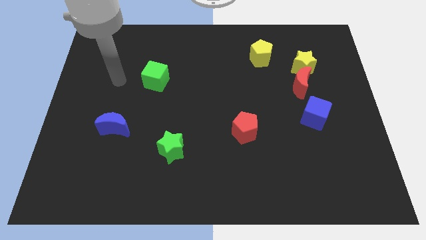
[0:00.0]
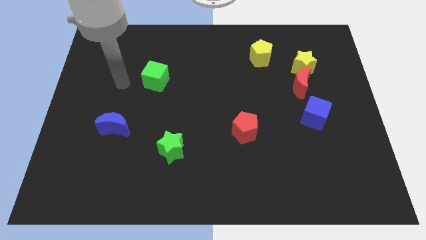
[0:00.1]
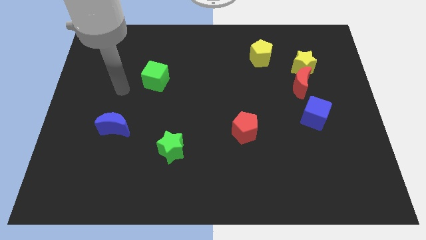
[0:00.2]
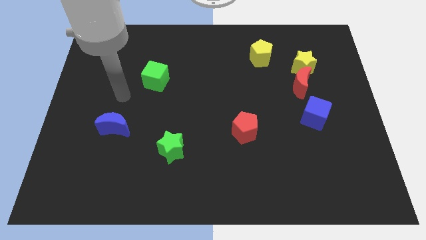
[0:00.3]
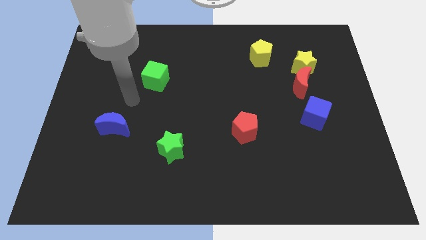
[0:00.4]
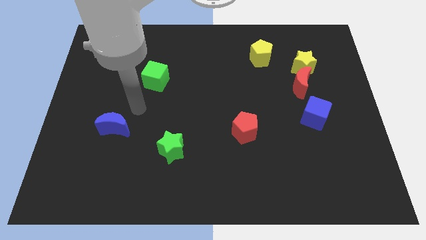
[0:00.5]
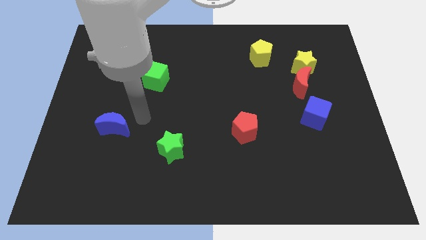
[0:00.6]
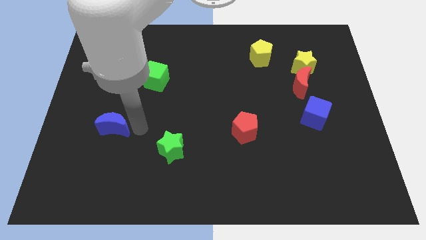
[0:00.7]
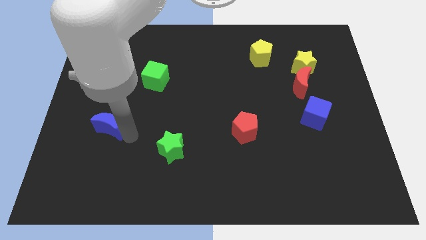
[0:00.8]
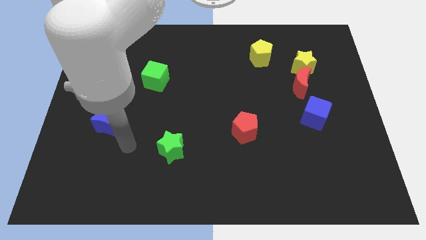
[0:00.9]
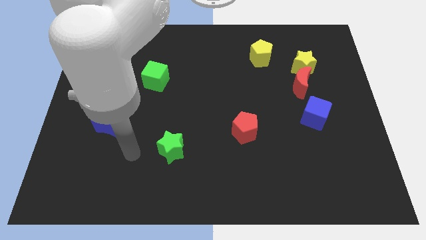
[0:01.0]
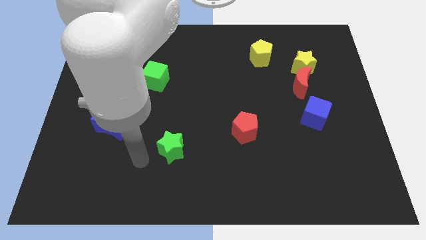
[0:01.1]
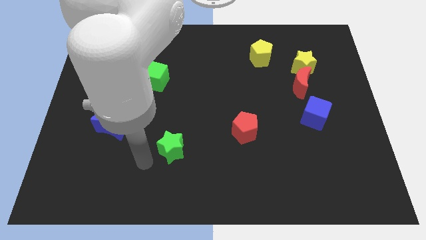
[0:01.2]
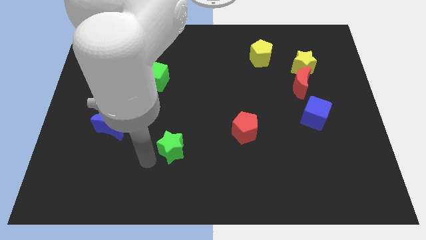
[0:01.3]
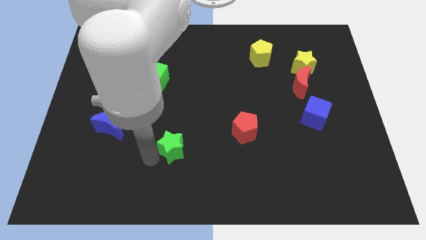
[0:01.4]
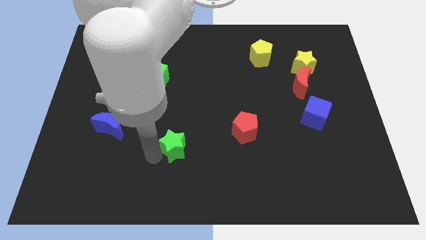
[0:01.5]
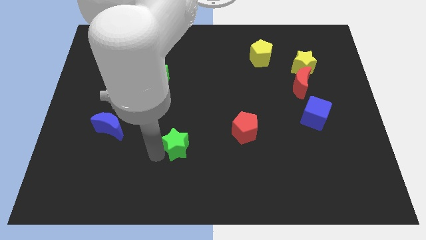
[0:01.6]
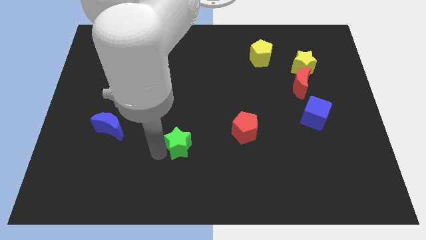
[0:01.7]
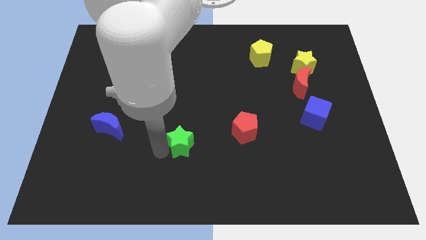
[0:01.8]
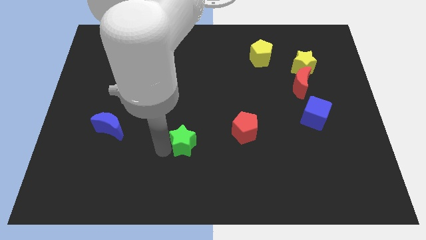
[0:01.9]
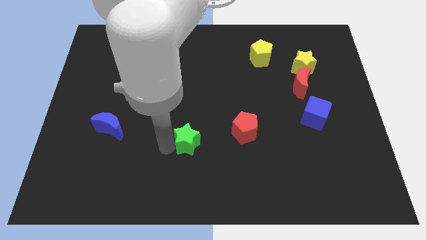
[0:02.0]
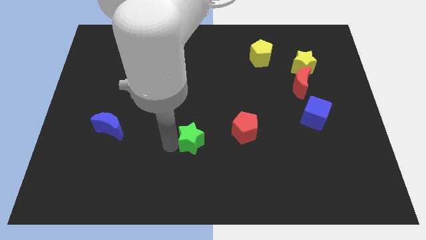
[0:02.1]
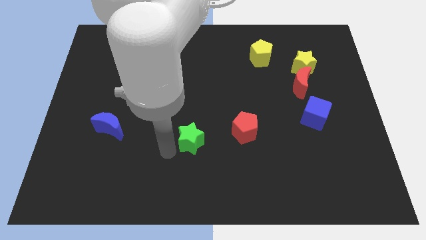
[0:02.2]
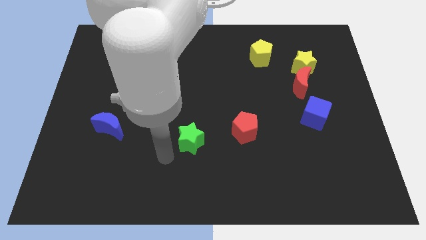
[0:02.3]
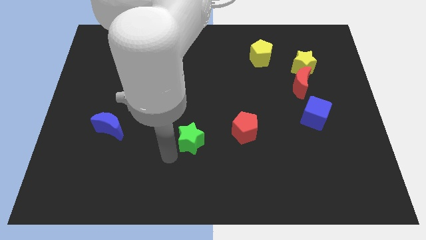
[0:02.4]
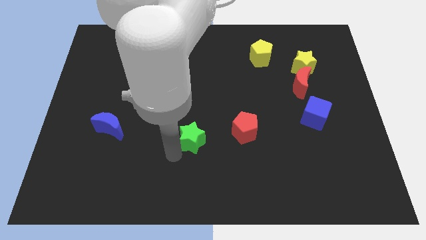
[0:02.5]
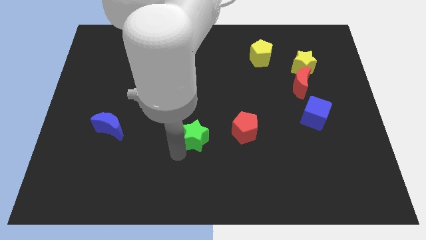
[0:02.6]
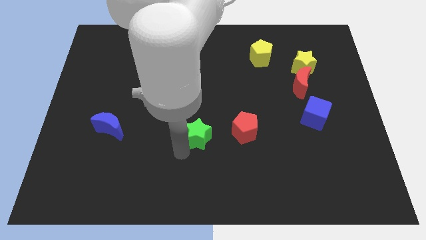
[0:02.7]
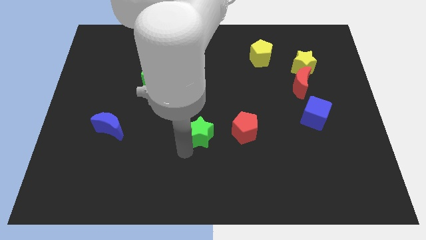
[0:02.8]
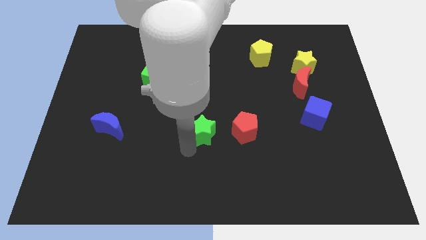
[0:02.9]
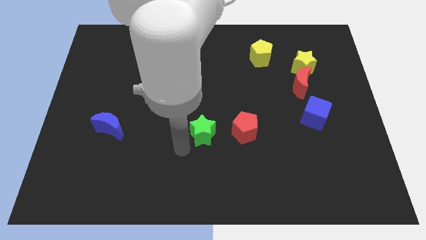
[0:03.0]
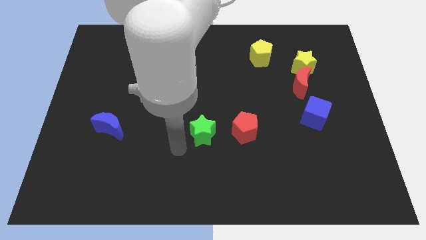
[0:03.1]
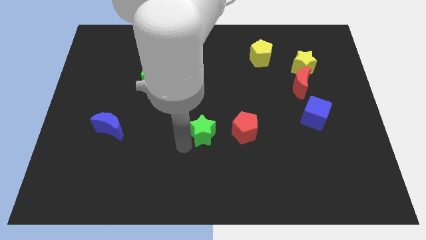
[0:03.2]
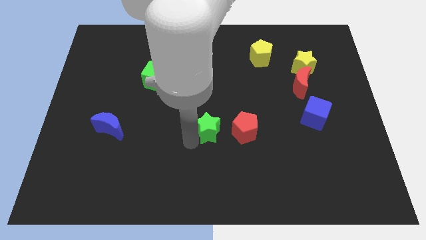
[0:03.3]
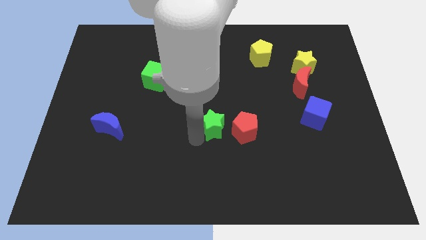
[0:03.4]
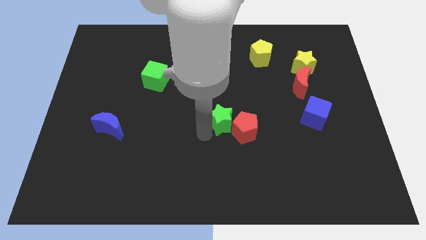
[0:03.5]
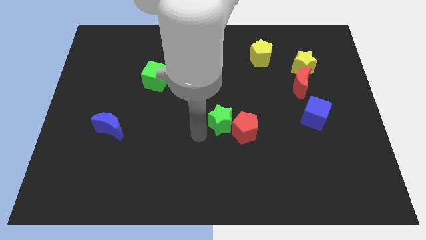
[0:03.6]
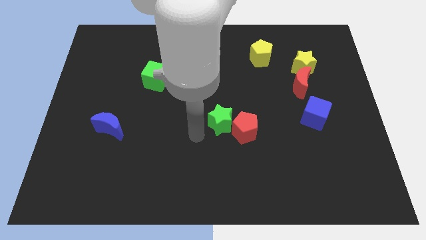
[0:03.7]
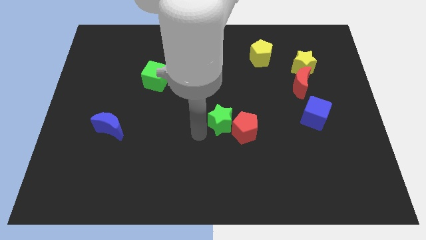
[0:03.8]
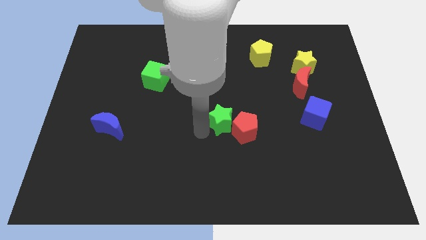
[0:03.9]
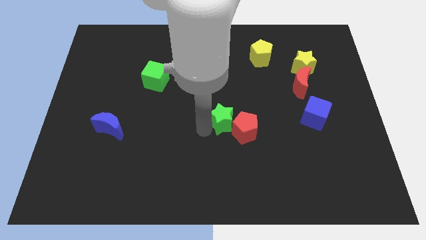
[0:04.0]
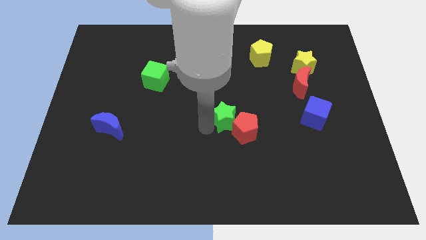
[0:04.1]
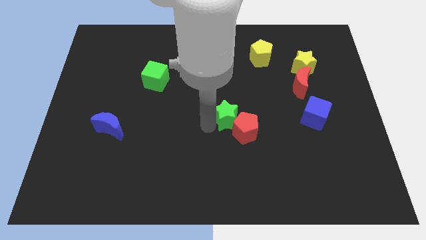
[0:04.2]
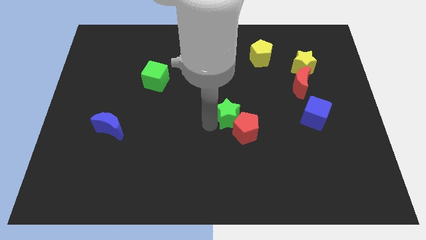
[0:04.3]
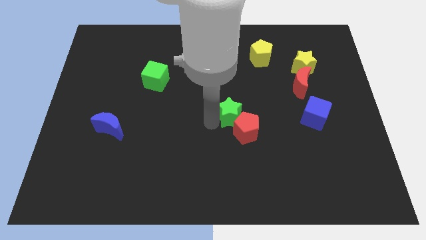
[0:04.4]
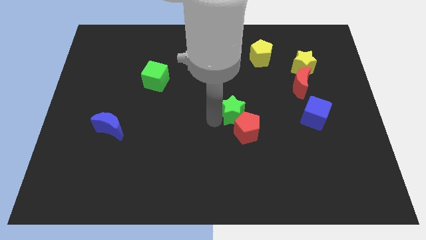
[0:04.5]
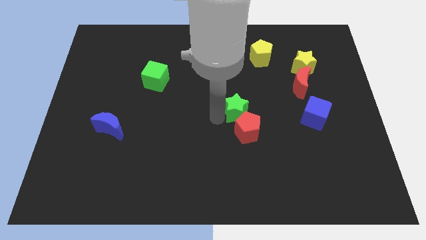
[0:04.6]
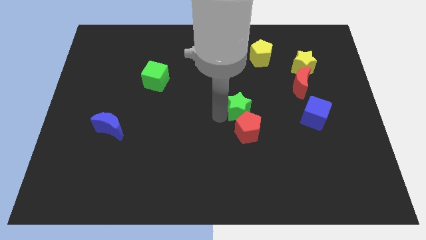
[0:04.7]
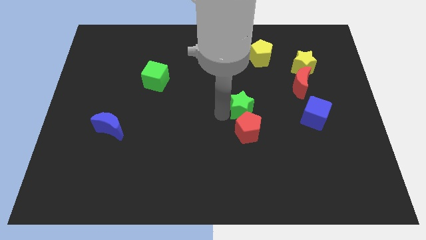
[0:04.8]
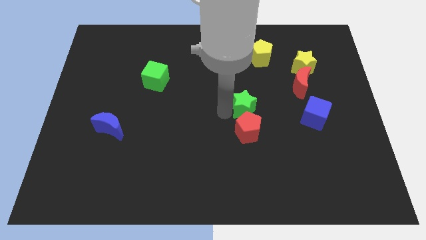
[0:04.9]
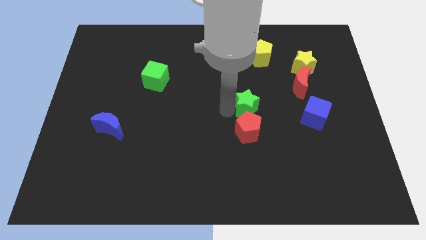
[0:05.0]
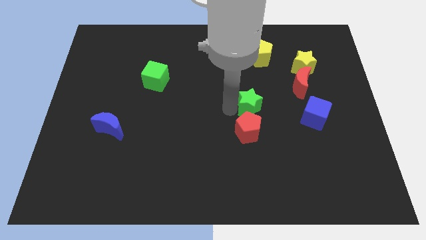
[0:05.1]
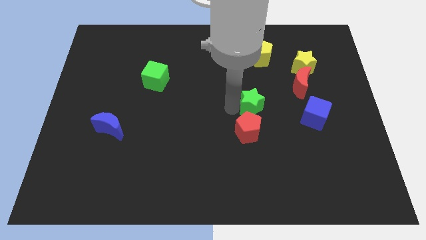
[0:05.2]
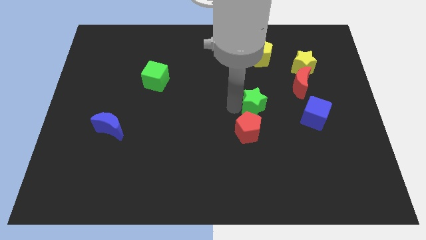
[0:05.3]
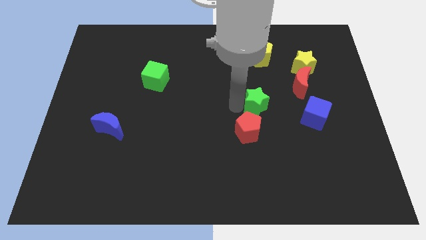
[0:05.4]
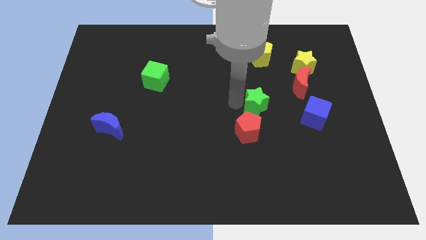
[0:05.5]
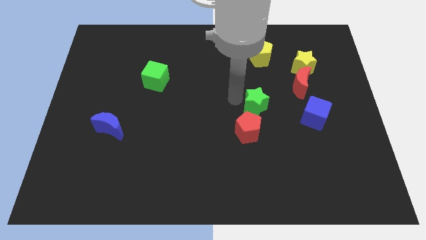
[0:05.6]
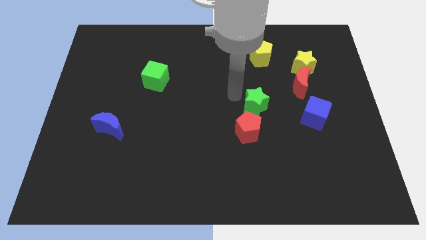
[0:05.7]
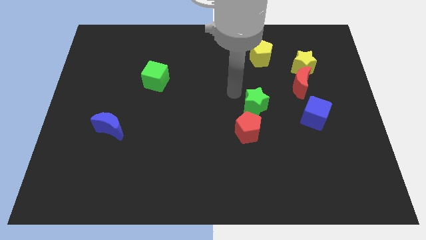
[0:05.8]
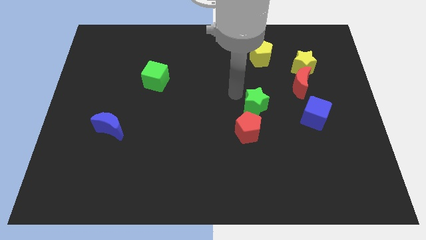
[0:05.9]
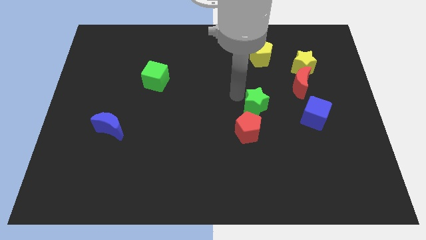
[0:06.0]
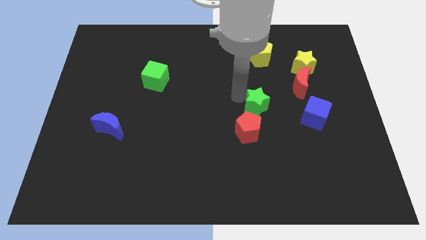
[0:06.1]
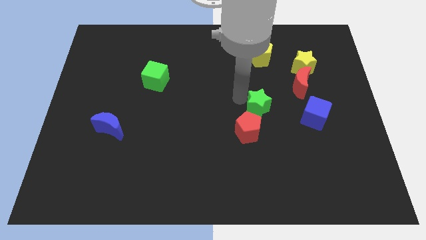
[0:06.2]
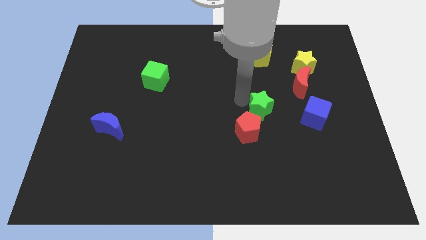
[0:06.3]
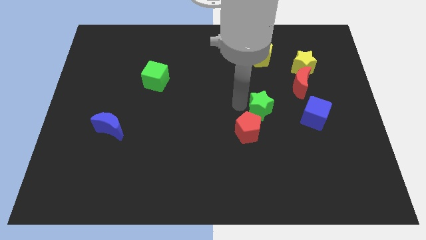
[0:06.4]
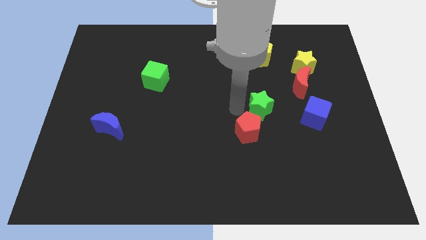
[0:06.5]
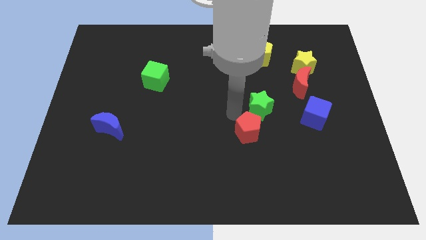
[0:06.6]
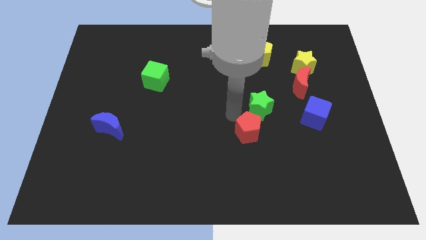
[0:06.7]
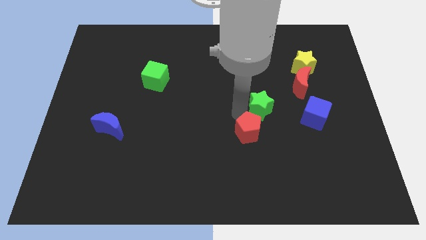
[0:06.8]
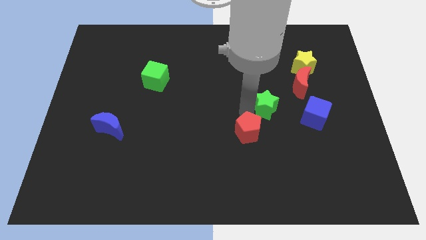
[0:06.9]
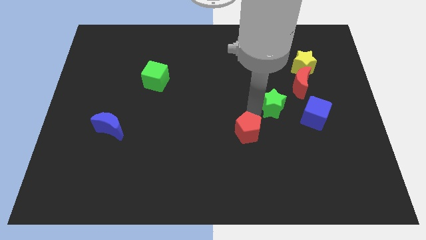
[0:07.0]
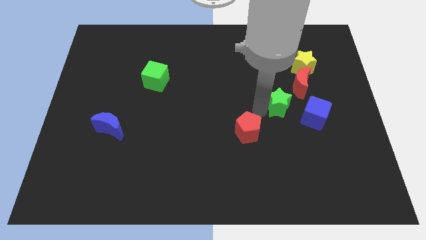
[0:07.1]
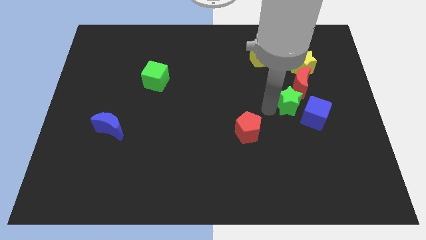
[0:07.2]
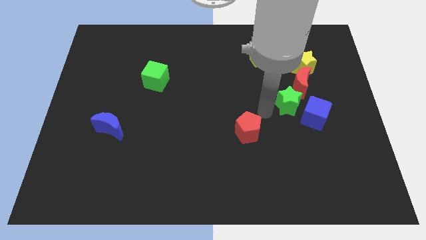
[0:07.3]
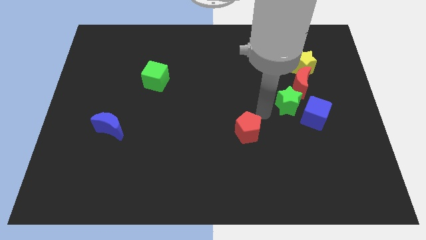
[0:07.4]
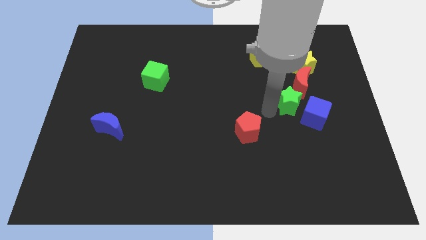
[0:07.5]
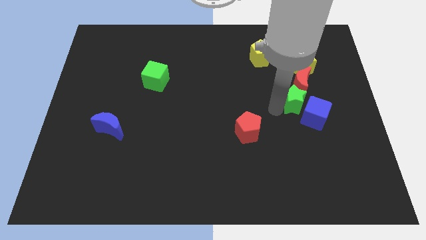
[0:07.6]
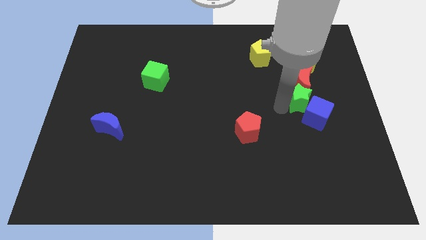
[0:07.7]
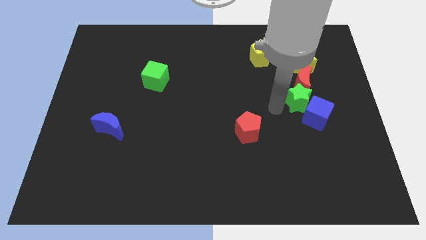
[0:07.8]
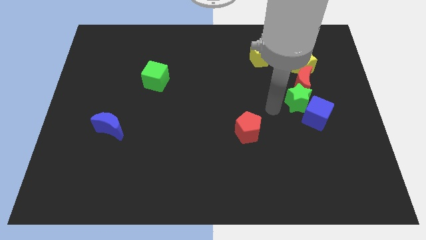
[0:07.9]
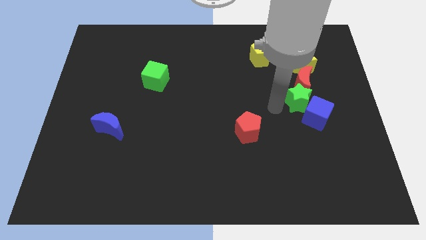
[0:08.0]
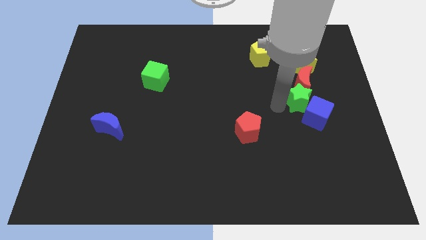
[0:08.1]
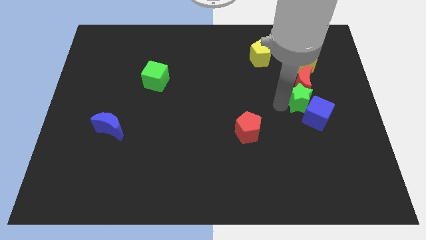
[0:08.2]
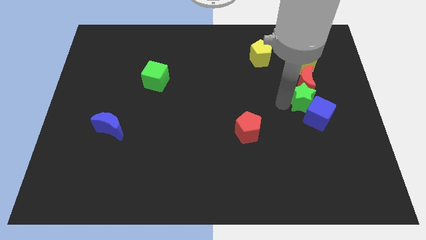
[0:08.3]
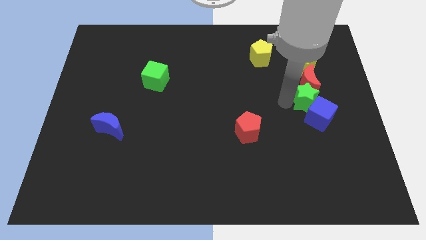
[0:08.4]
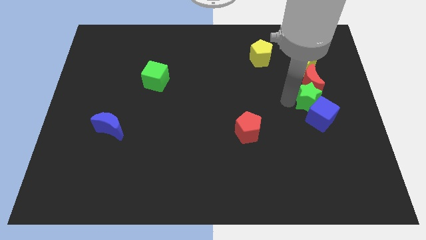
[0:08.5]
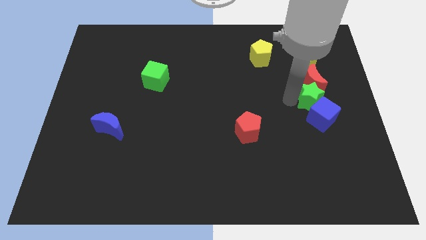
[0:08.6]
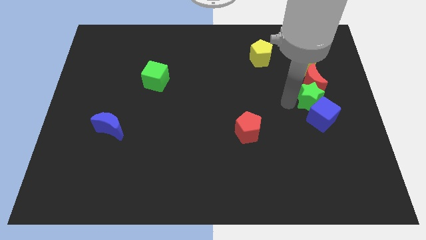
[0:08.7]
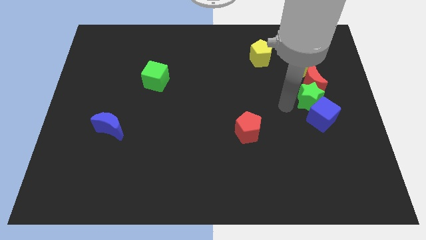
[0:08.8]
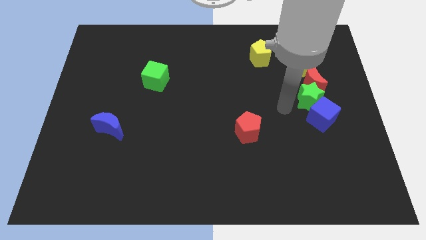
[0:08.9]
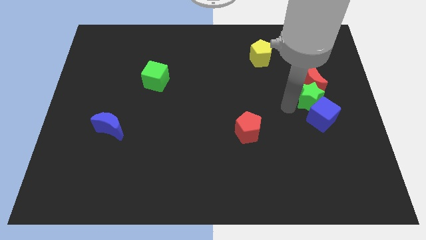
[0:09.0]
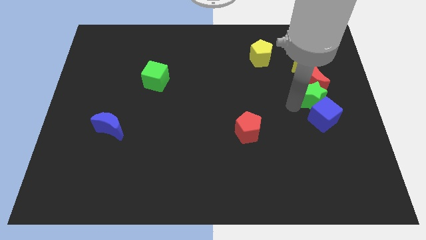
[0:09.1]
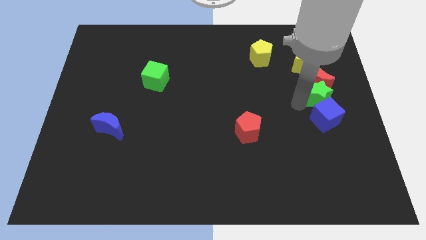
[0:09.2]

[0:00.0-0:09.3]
move the green star to the center right
